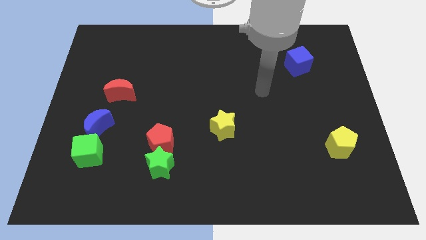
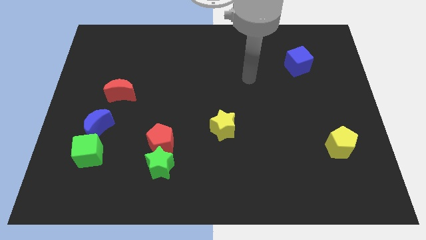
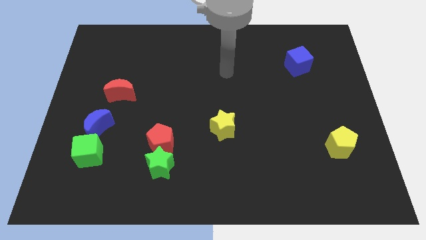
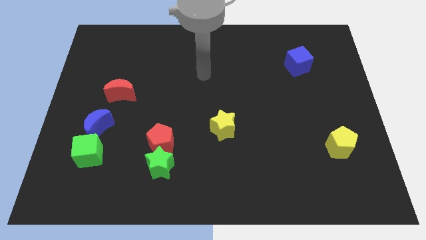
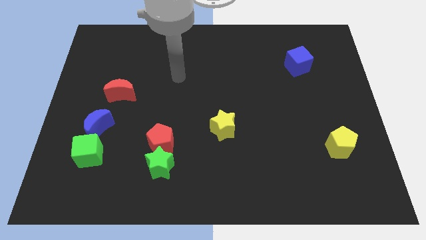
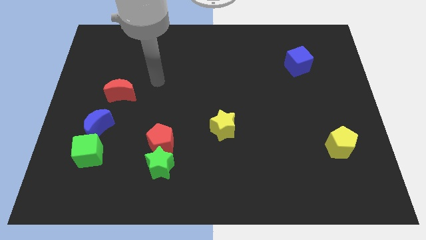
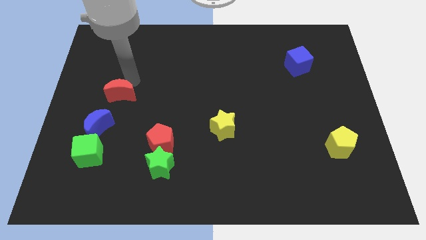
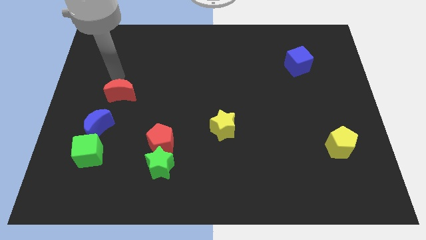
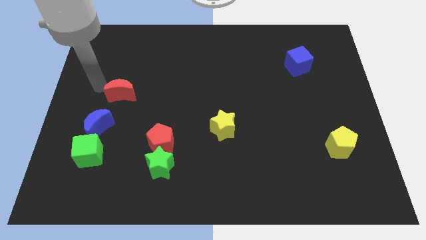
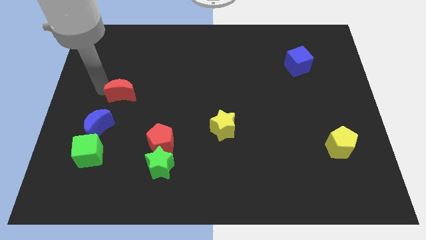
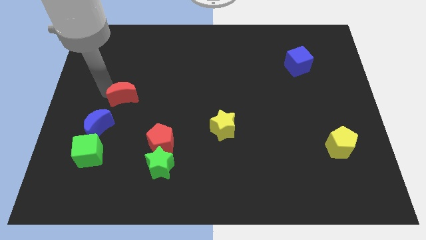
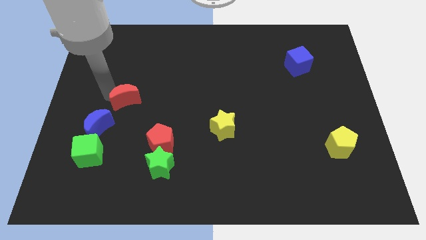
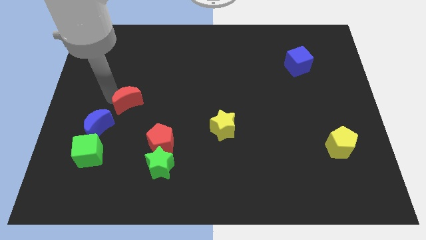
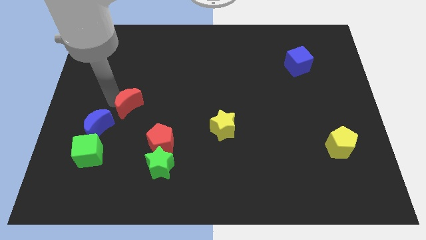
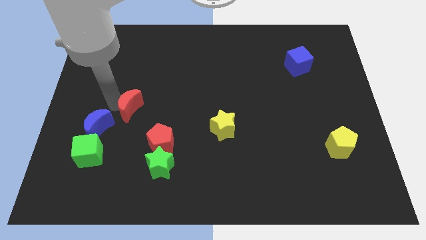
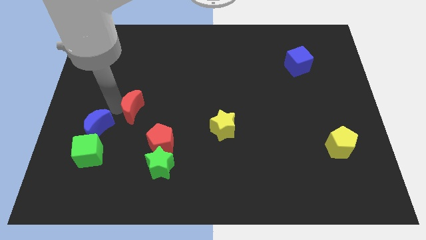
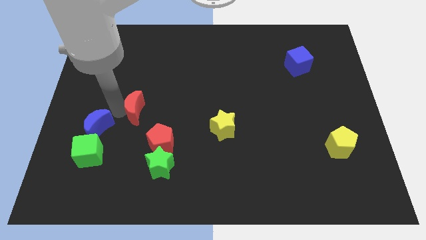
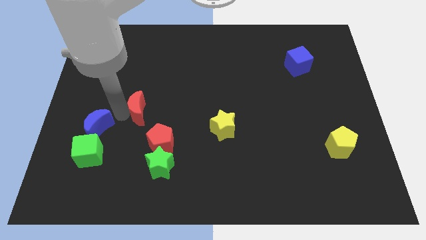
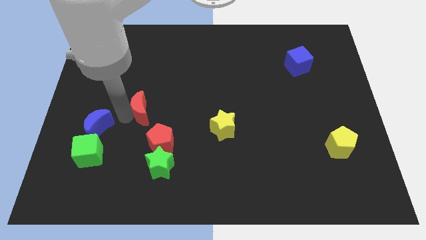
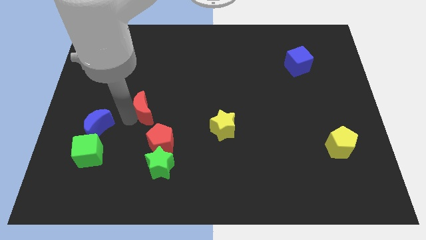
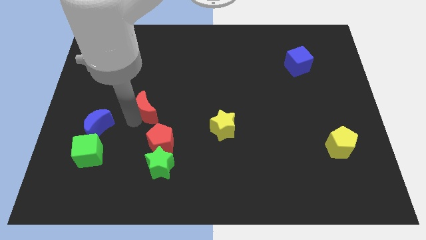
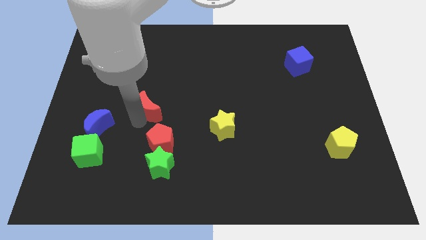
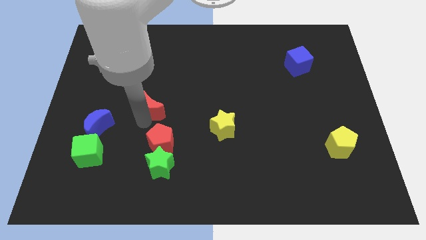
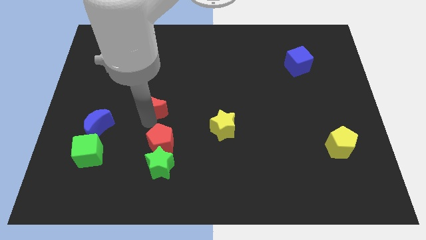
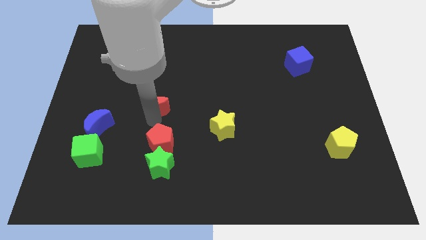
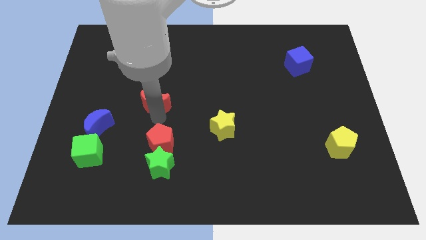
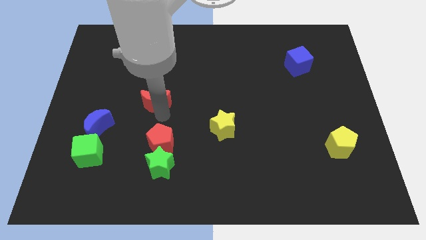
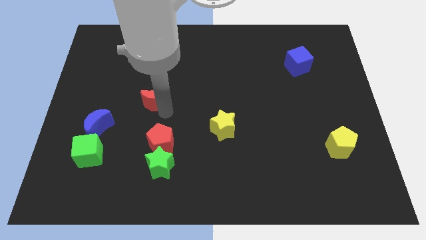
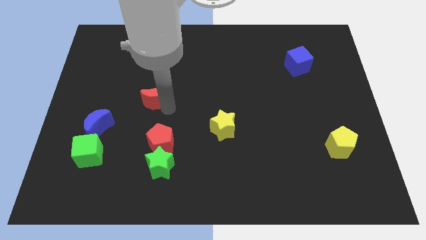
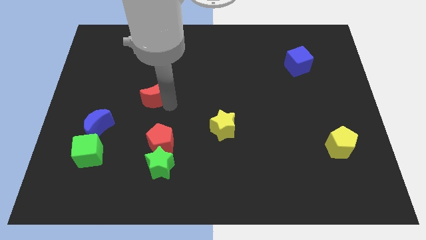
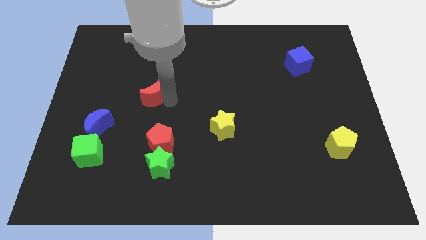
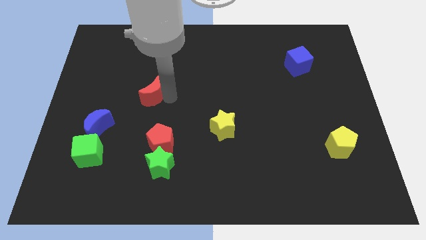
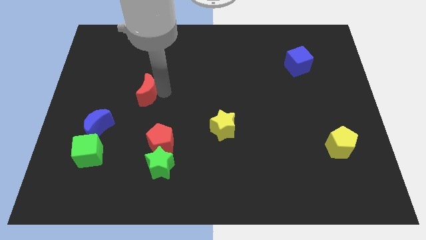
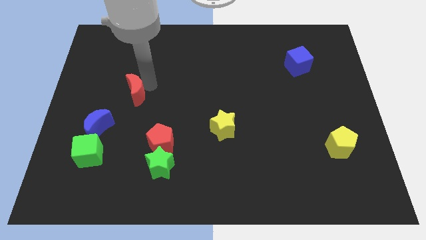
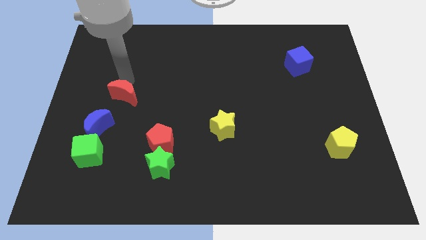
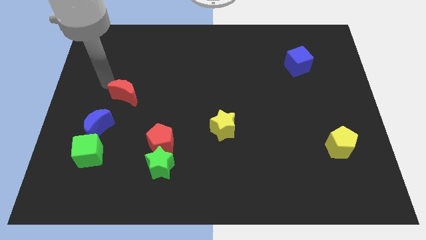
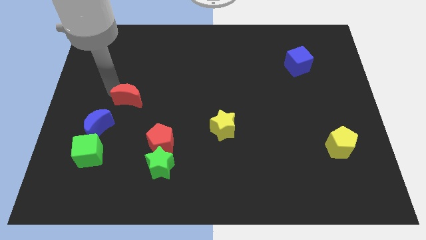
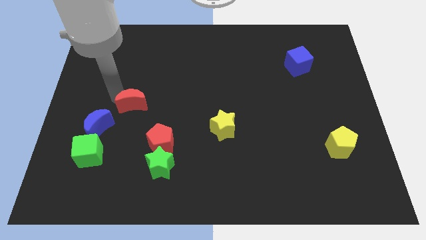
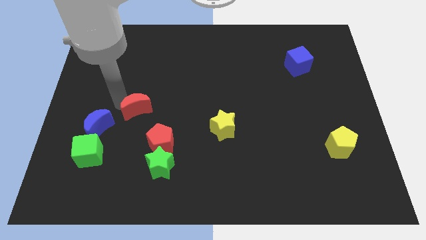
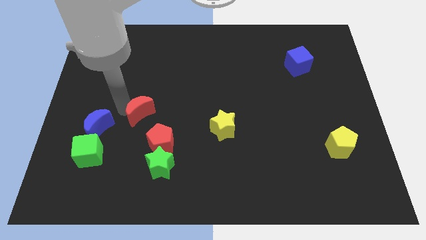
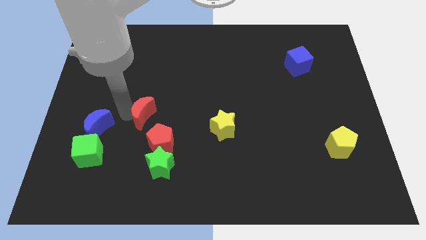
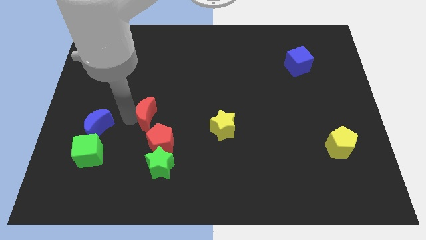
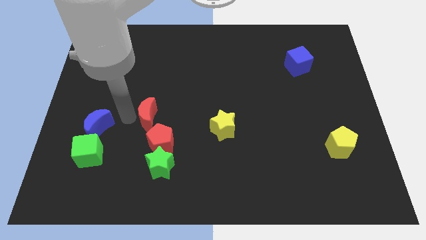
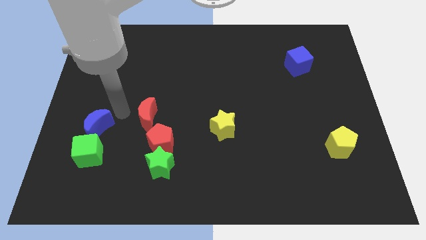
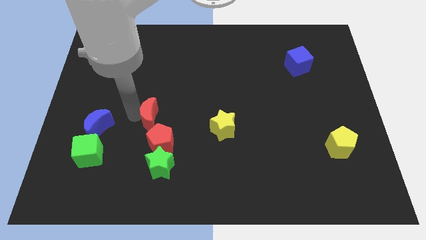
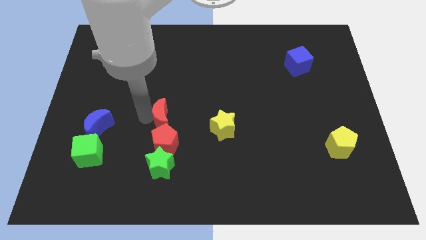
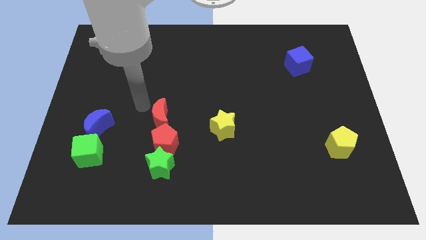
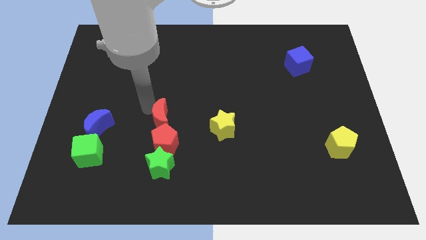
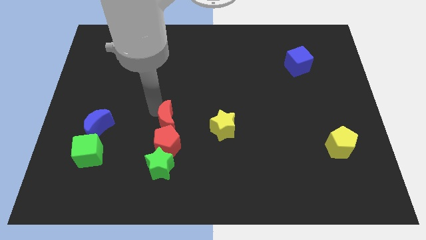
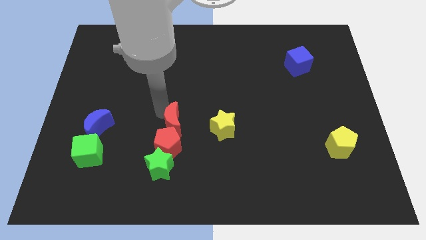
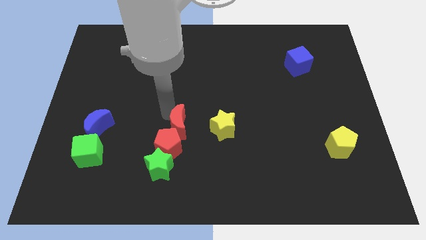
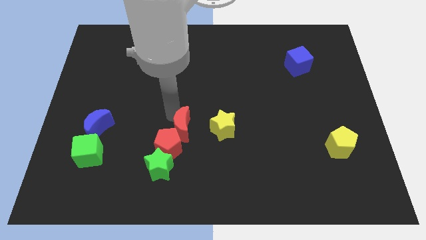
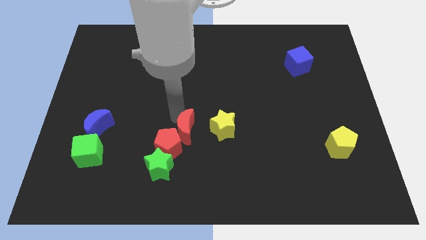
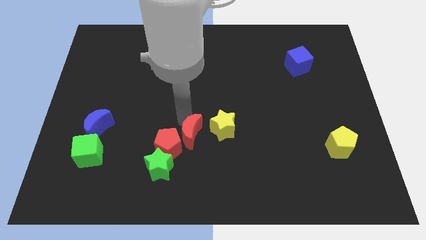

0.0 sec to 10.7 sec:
move the red moon downwards and to the right

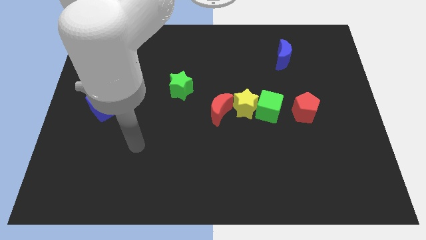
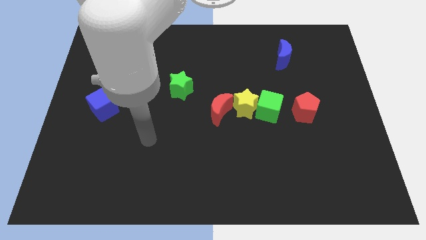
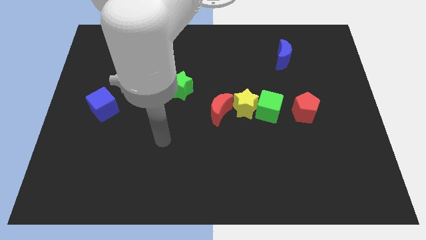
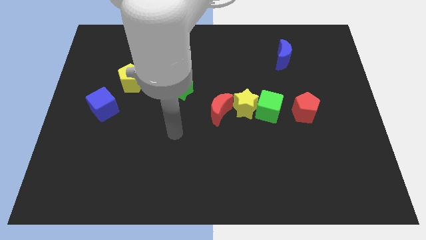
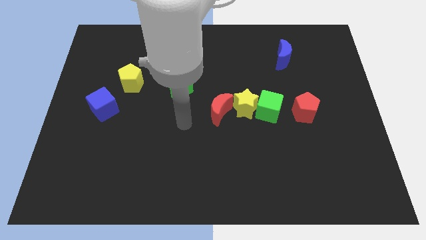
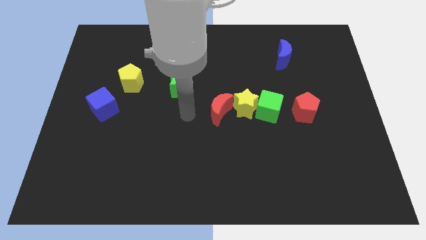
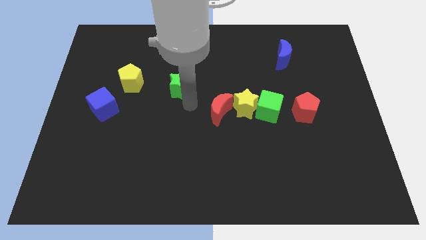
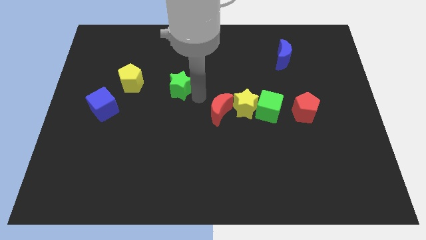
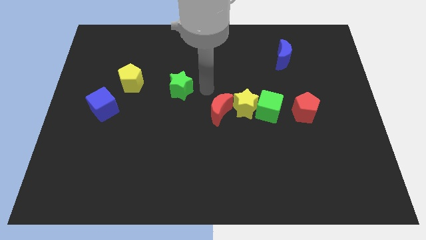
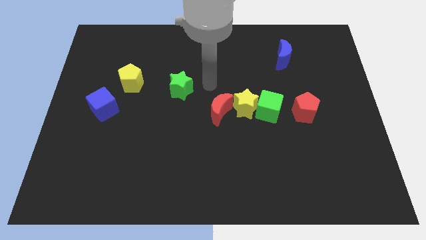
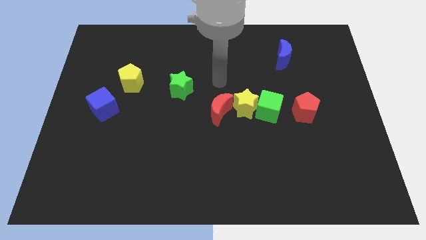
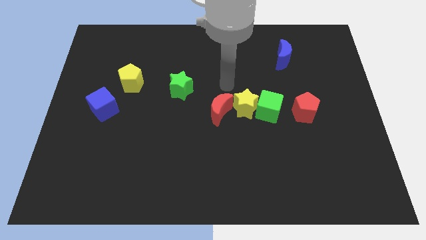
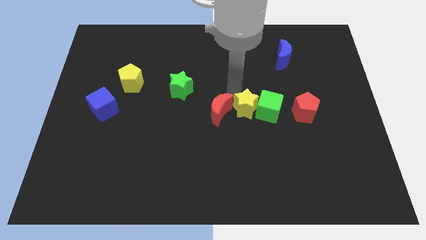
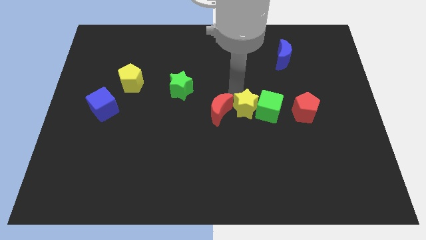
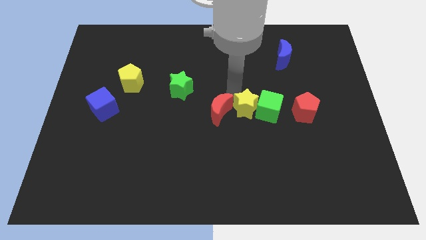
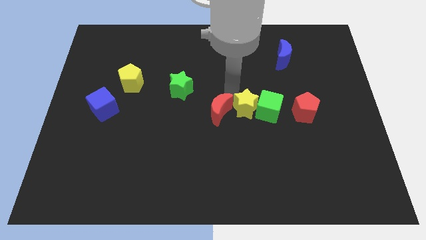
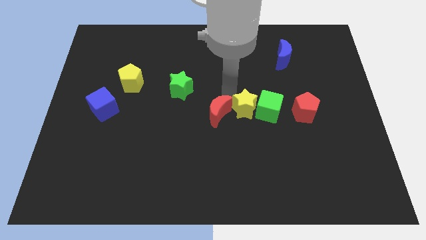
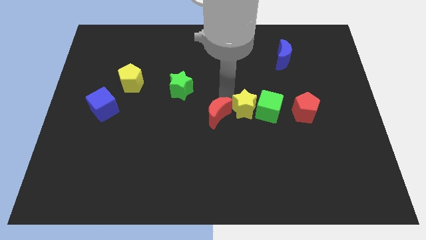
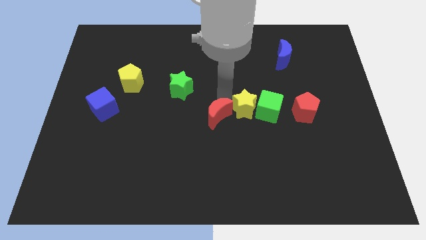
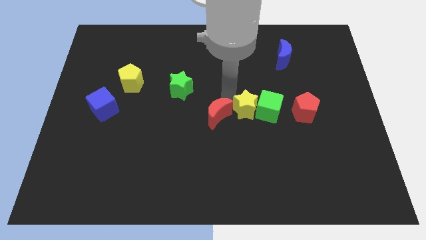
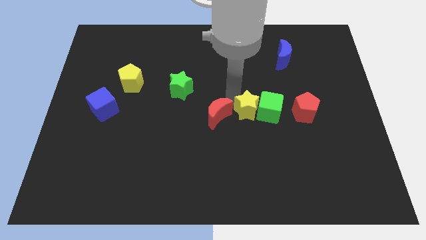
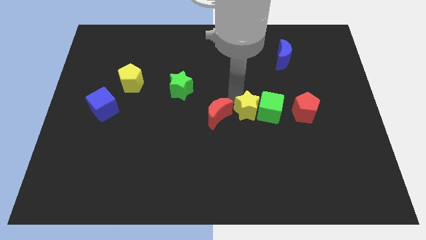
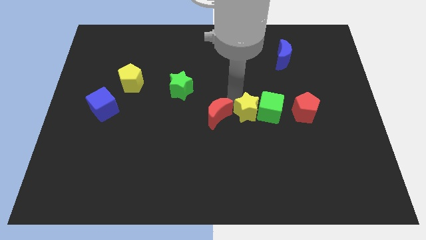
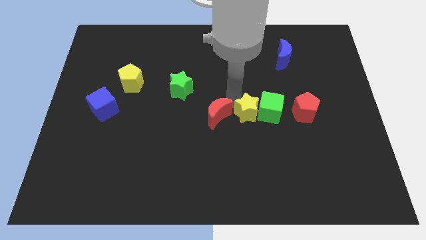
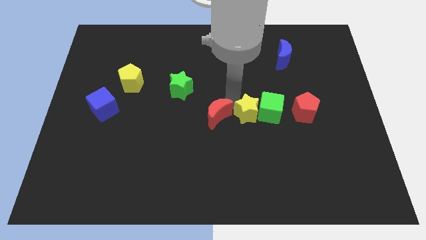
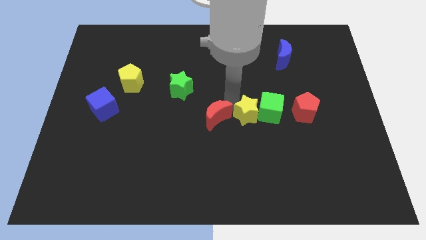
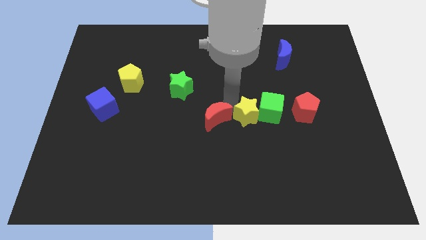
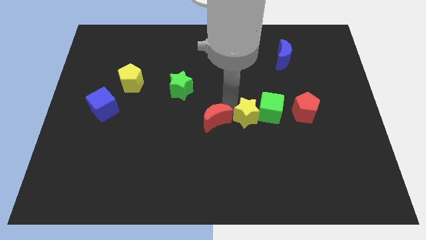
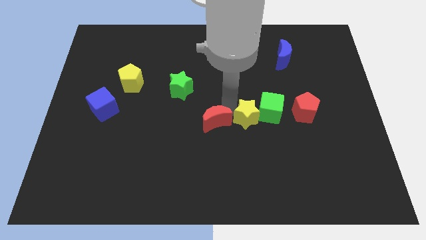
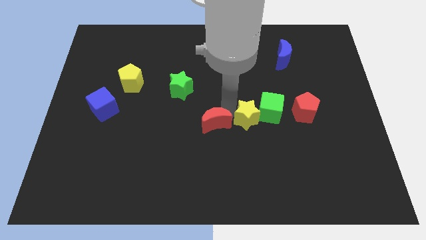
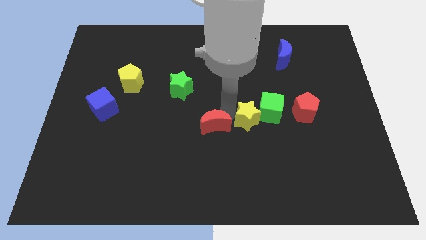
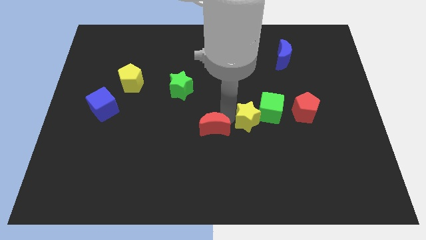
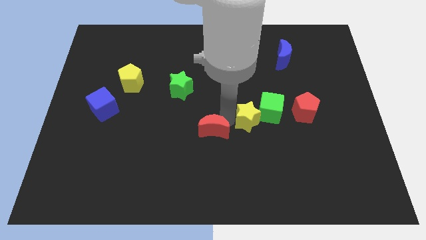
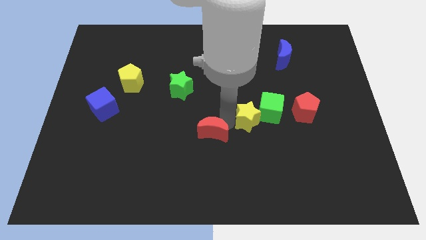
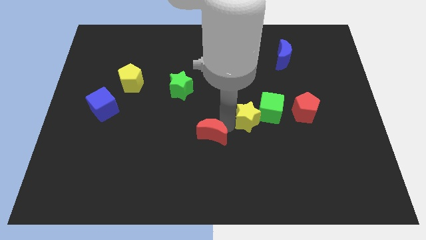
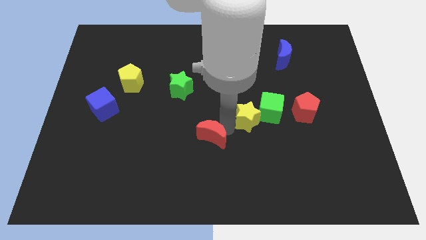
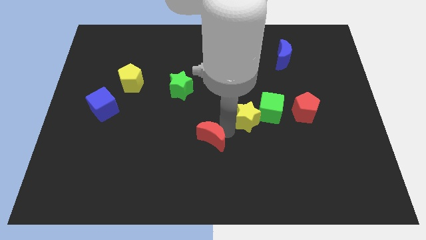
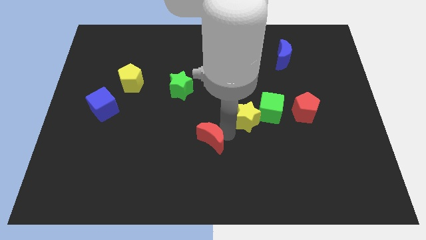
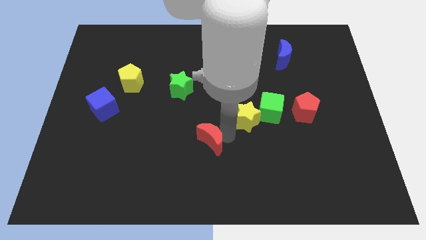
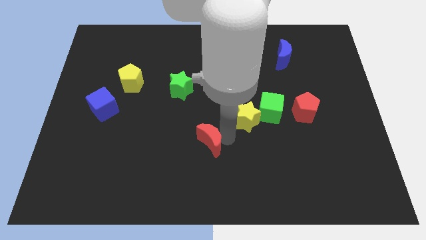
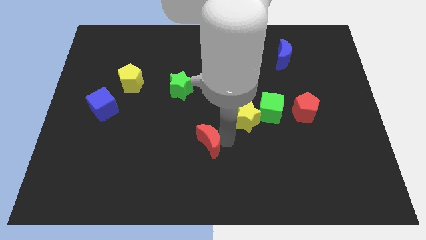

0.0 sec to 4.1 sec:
slide the red moon a little downwards and to the left
